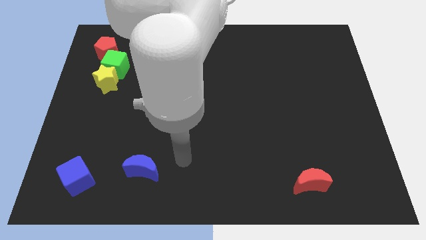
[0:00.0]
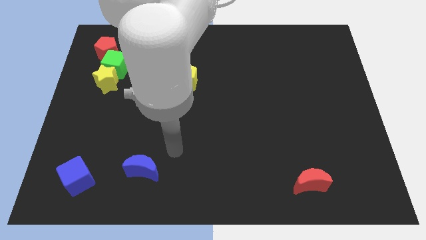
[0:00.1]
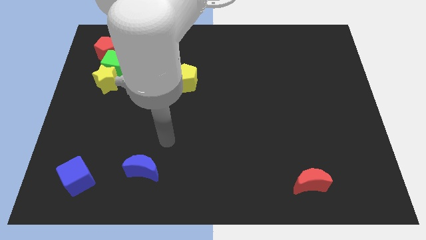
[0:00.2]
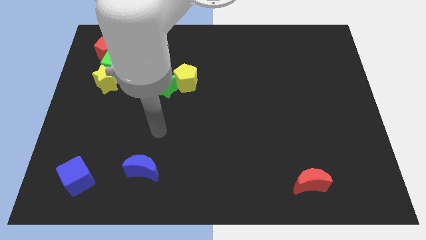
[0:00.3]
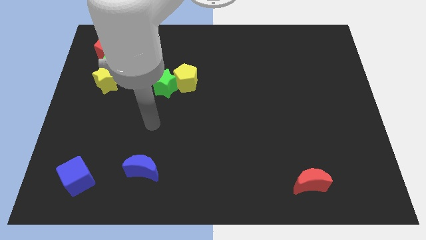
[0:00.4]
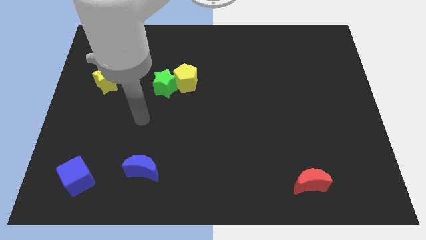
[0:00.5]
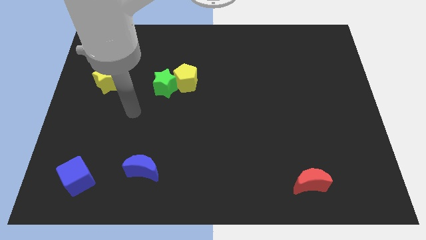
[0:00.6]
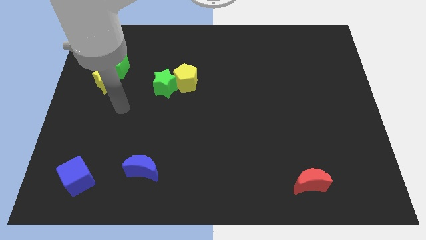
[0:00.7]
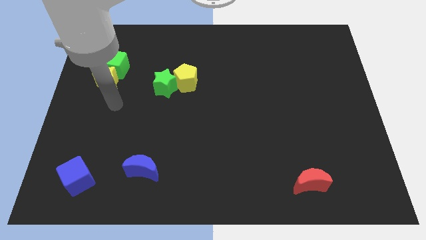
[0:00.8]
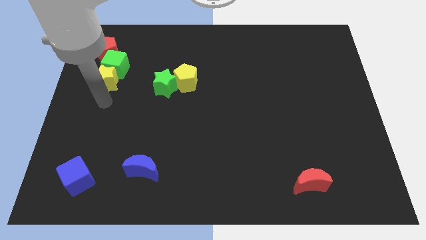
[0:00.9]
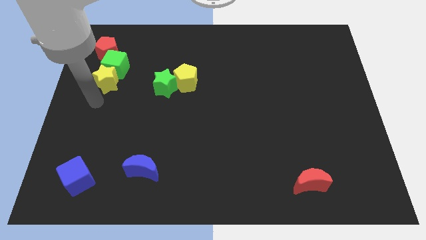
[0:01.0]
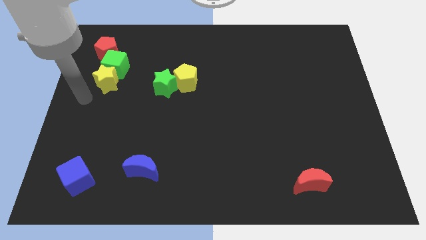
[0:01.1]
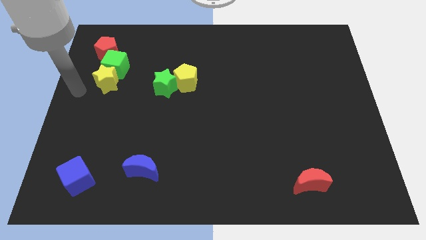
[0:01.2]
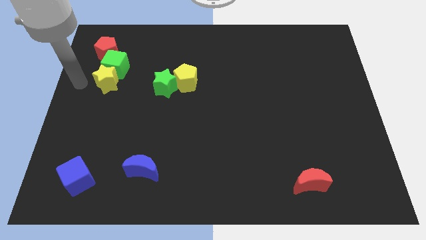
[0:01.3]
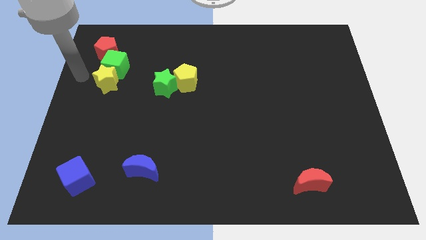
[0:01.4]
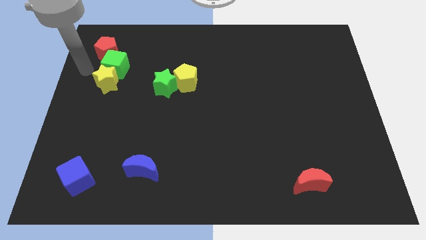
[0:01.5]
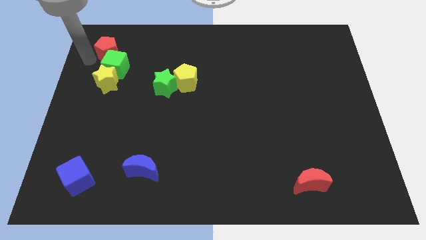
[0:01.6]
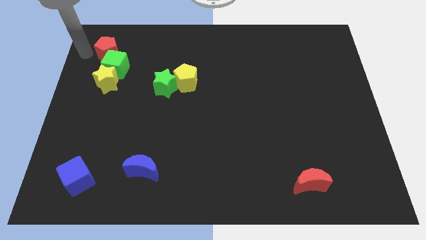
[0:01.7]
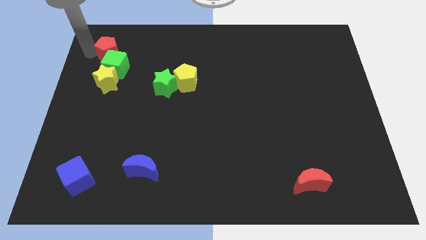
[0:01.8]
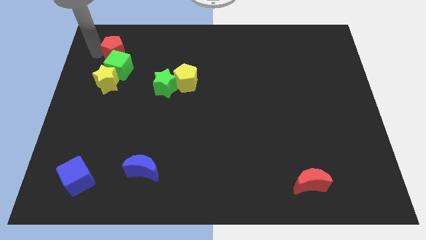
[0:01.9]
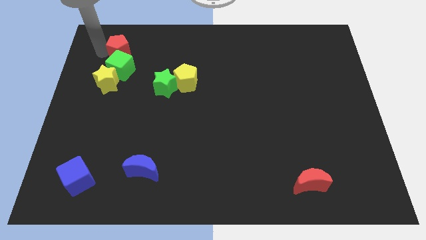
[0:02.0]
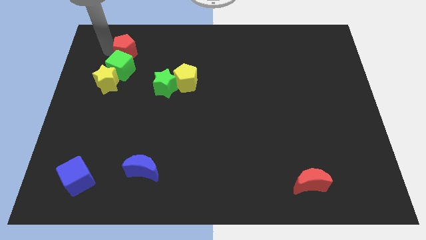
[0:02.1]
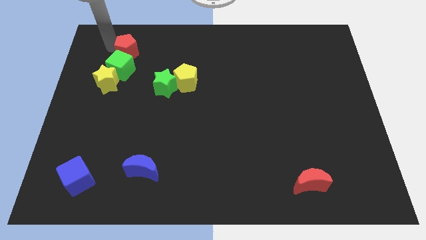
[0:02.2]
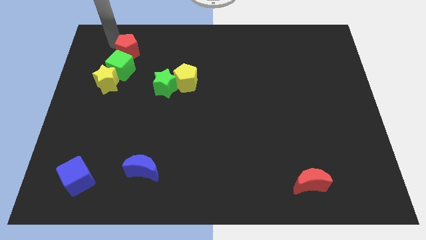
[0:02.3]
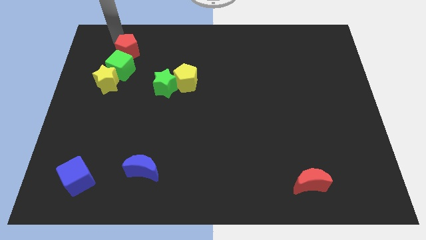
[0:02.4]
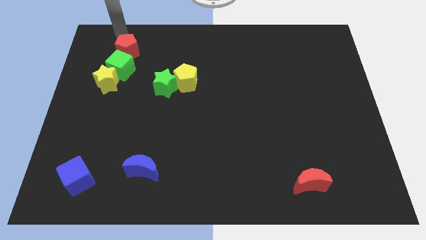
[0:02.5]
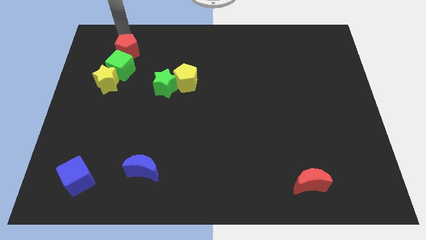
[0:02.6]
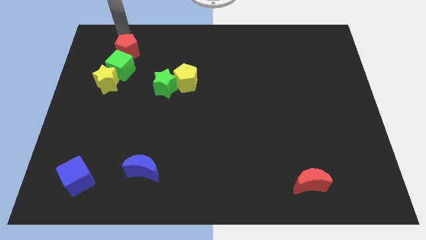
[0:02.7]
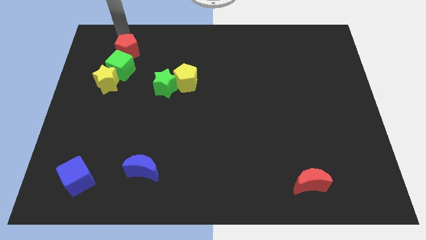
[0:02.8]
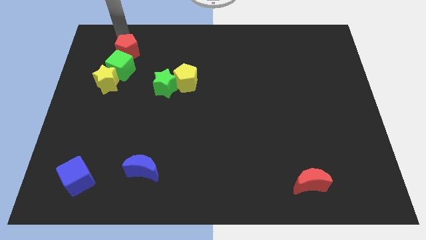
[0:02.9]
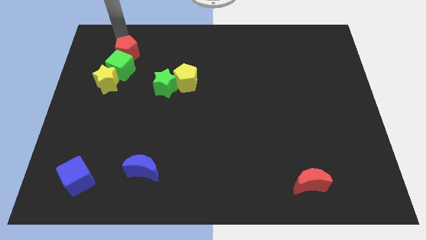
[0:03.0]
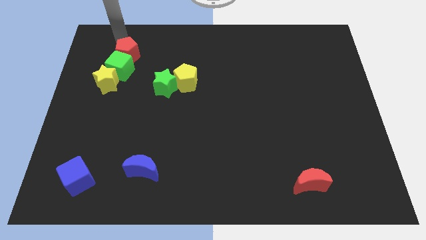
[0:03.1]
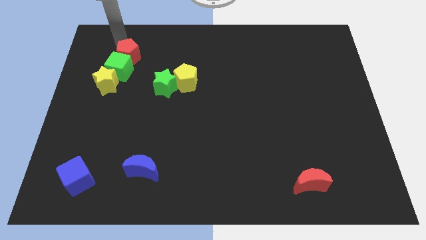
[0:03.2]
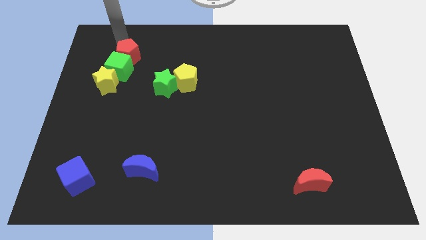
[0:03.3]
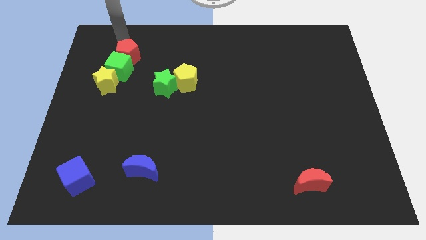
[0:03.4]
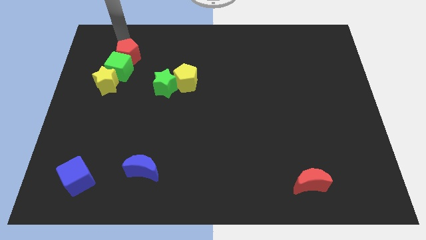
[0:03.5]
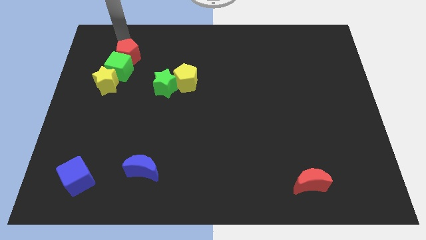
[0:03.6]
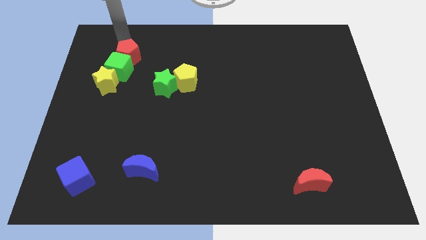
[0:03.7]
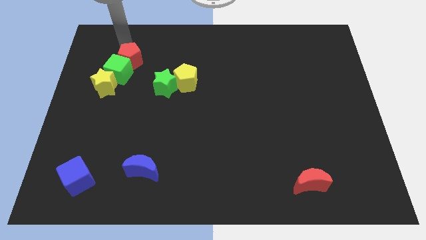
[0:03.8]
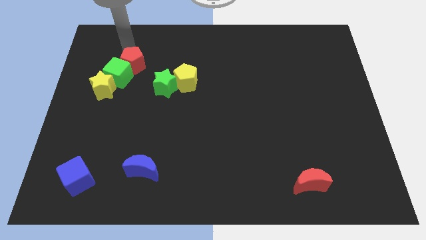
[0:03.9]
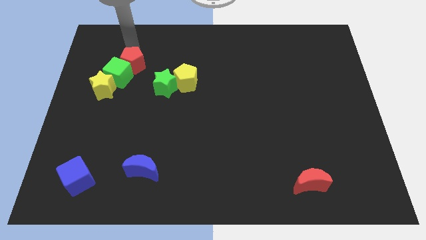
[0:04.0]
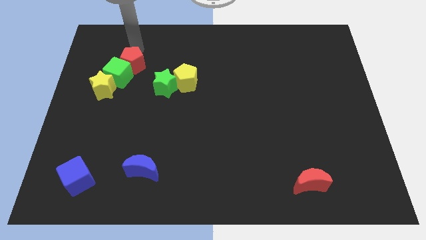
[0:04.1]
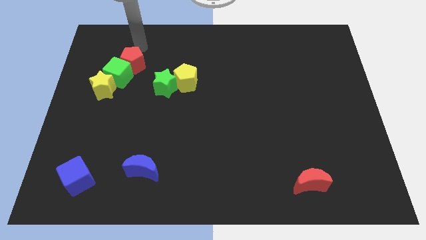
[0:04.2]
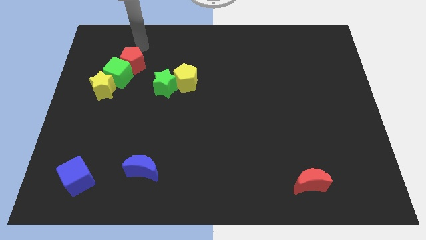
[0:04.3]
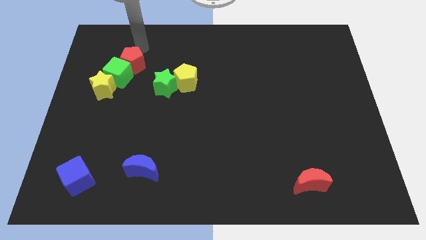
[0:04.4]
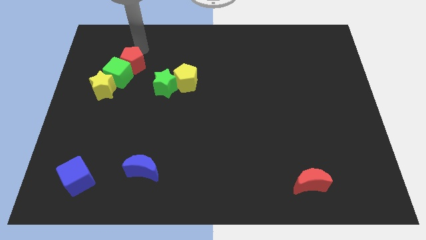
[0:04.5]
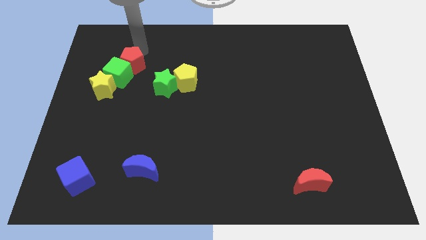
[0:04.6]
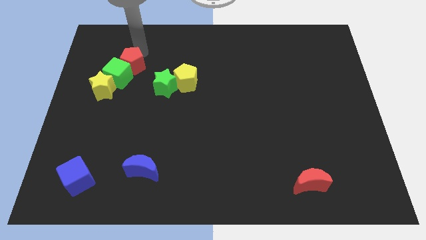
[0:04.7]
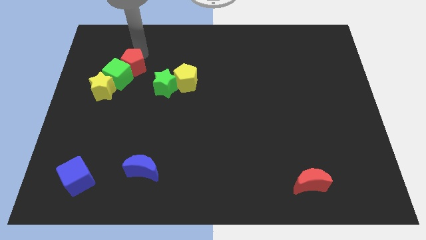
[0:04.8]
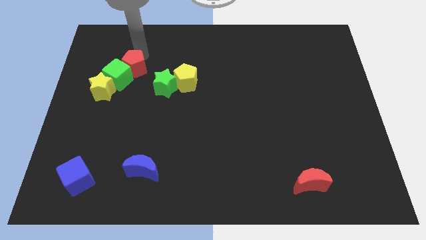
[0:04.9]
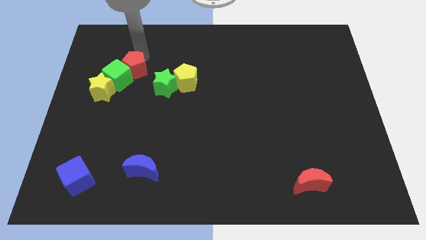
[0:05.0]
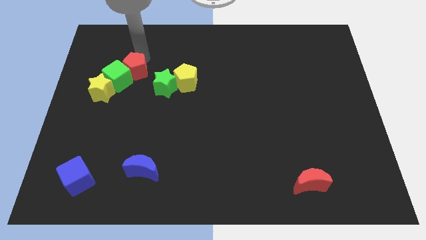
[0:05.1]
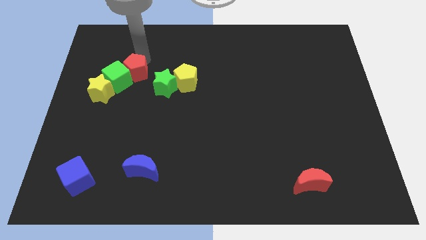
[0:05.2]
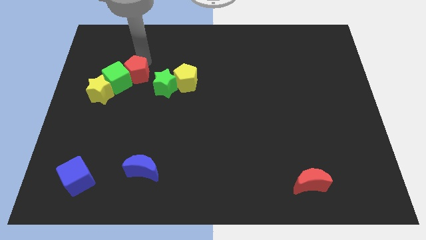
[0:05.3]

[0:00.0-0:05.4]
push the red pentagon to the left of the green star

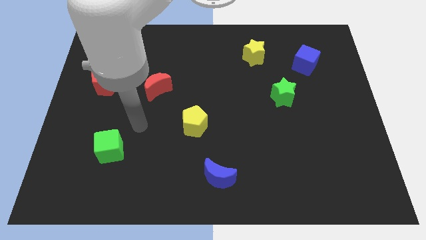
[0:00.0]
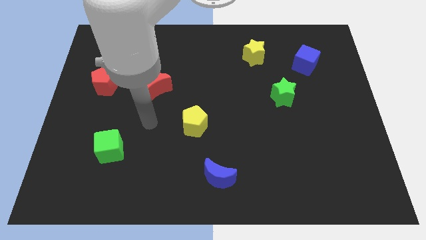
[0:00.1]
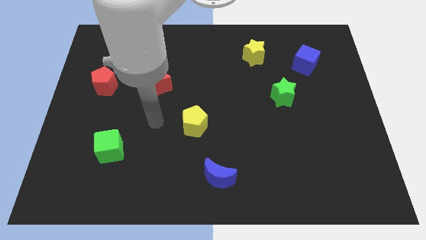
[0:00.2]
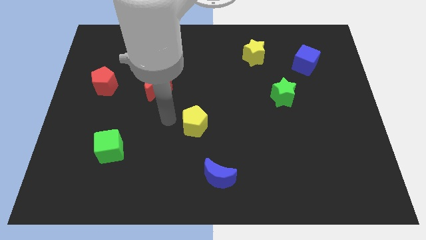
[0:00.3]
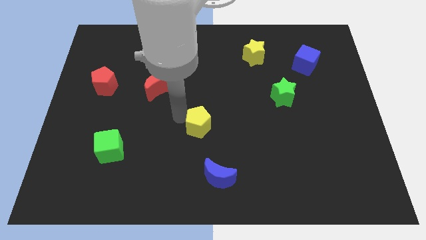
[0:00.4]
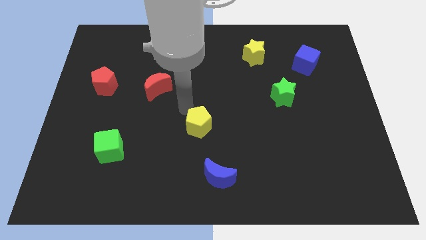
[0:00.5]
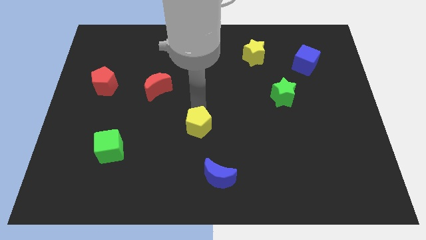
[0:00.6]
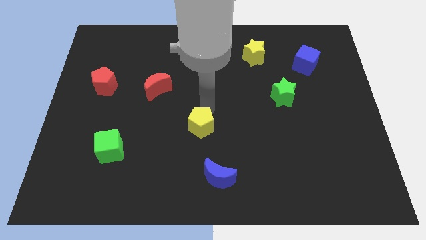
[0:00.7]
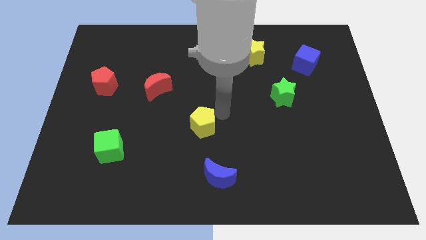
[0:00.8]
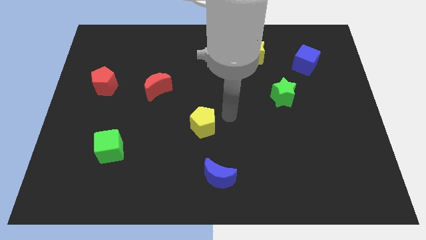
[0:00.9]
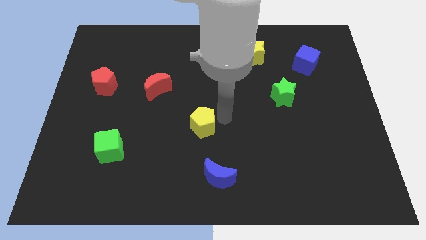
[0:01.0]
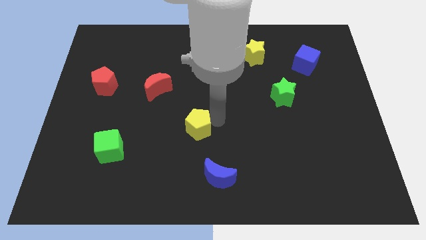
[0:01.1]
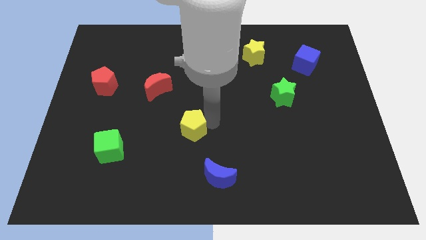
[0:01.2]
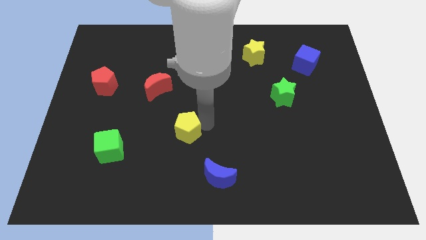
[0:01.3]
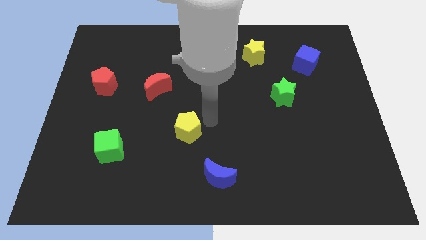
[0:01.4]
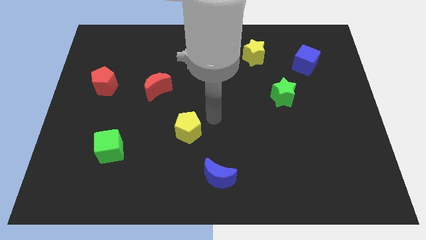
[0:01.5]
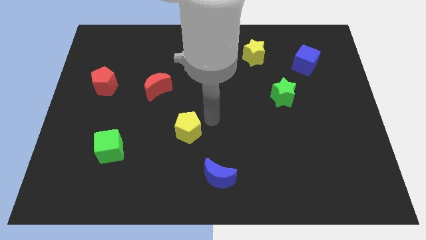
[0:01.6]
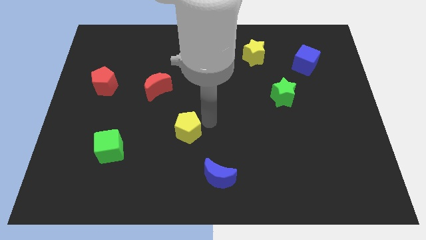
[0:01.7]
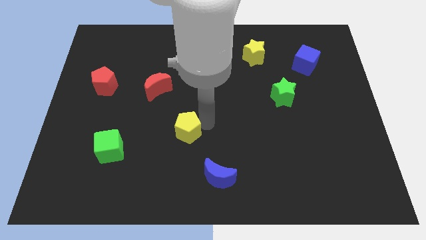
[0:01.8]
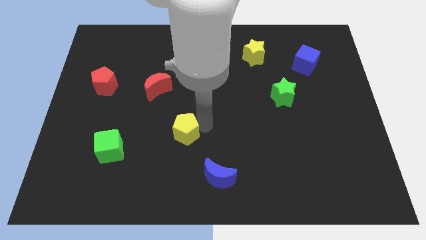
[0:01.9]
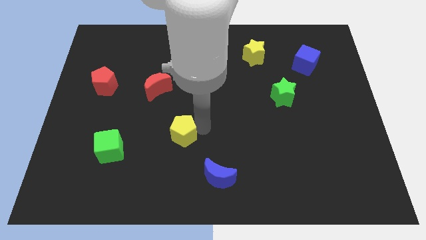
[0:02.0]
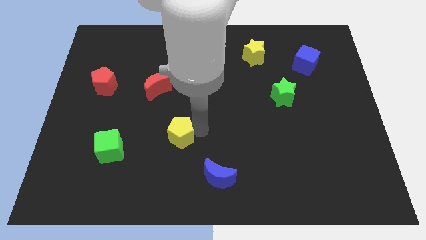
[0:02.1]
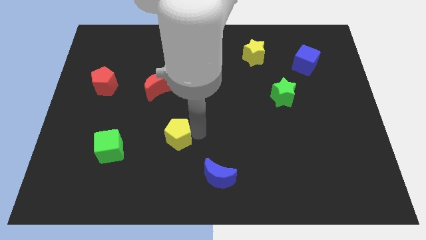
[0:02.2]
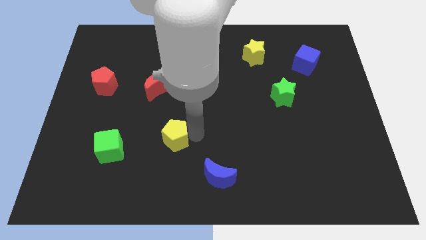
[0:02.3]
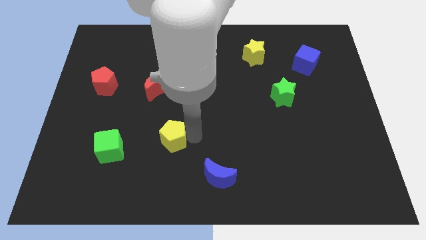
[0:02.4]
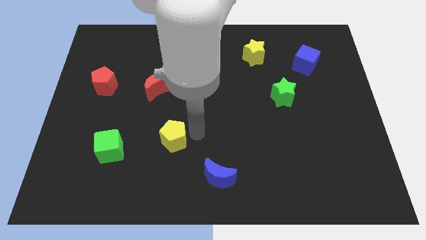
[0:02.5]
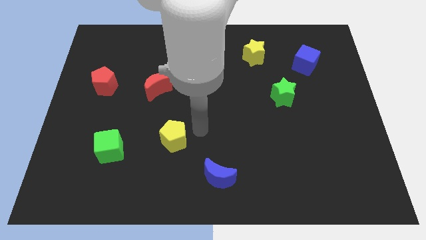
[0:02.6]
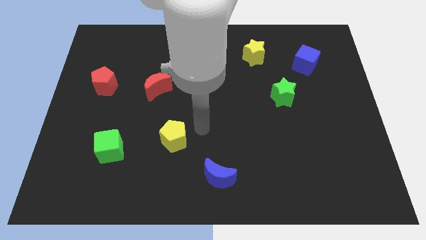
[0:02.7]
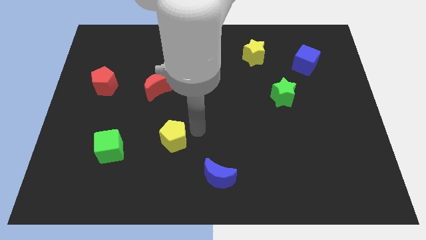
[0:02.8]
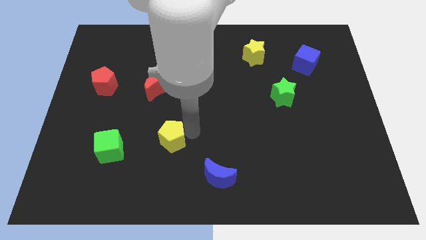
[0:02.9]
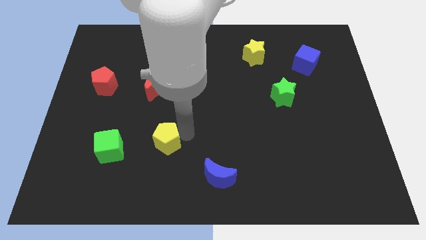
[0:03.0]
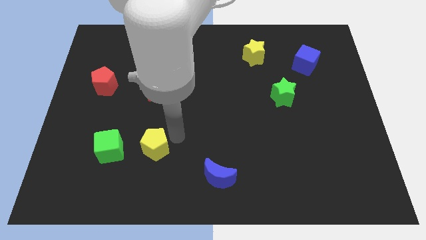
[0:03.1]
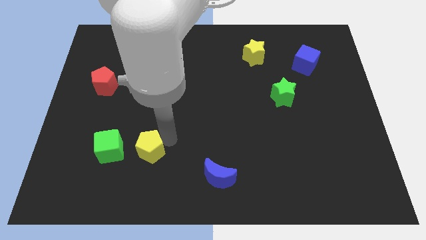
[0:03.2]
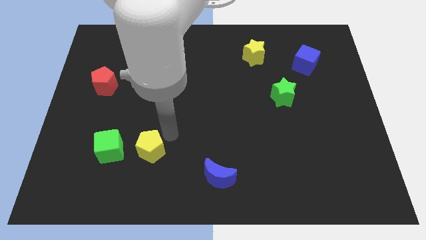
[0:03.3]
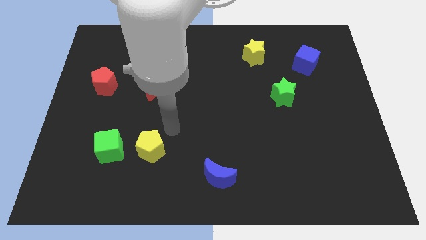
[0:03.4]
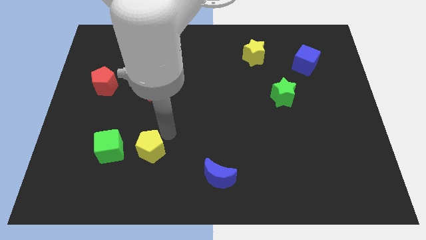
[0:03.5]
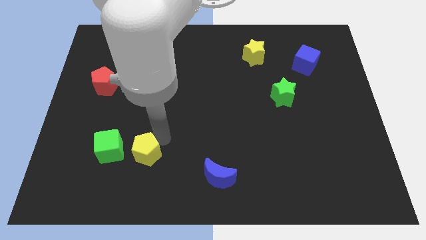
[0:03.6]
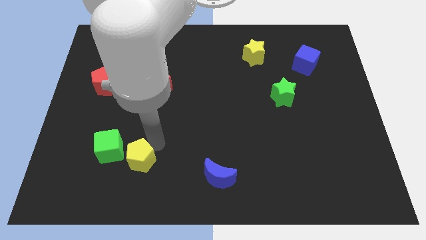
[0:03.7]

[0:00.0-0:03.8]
slide the yellow pentagon diagonally down and to the right of the green cube
